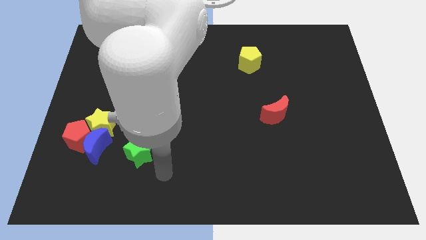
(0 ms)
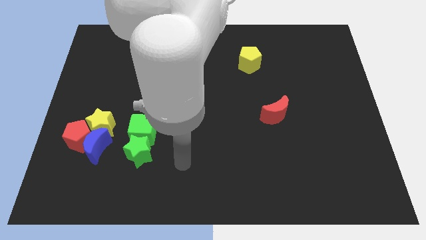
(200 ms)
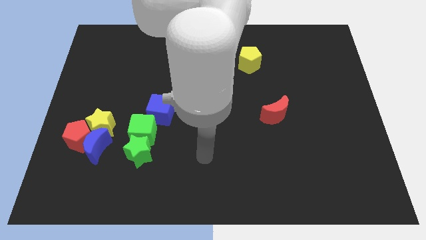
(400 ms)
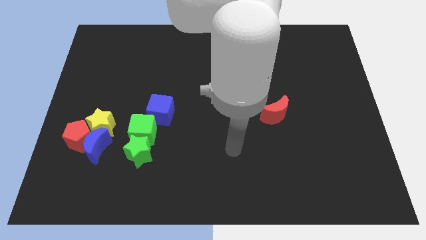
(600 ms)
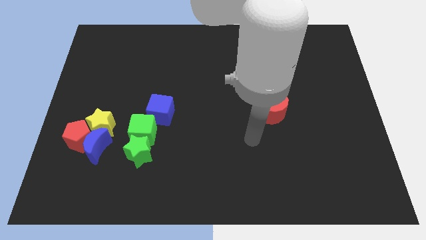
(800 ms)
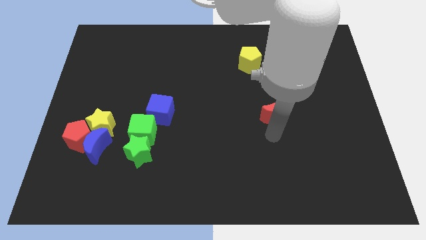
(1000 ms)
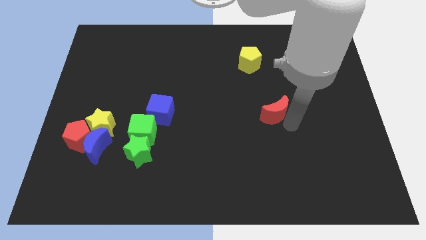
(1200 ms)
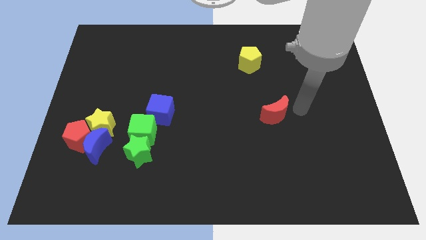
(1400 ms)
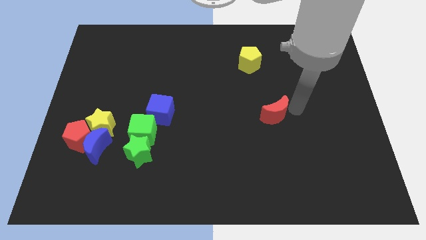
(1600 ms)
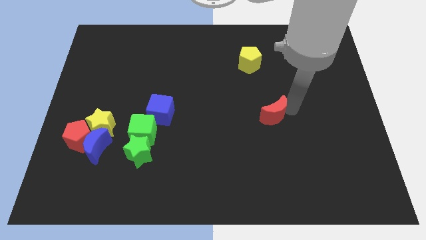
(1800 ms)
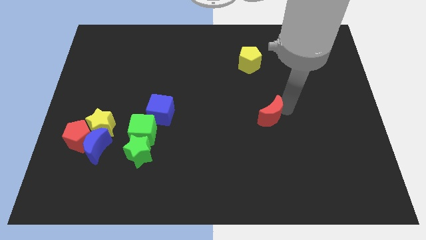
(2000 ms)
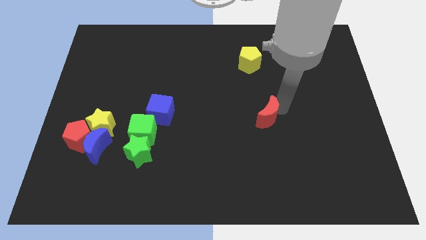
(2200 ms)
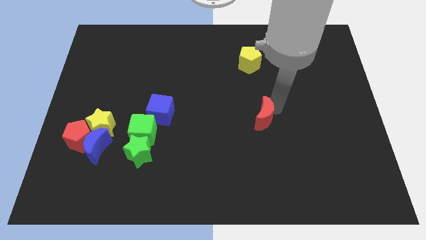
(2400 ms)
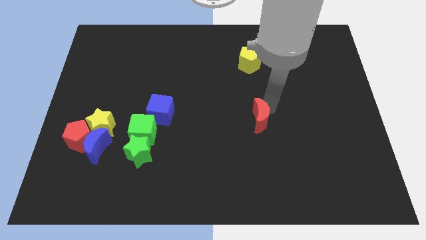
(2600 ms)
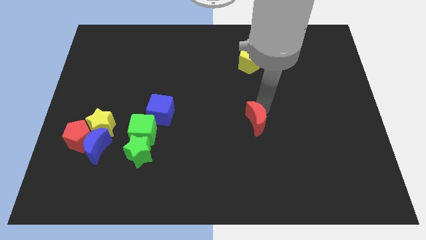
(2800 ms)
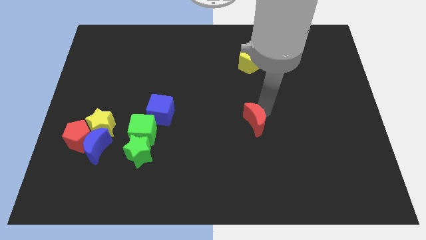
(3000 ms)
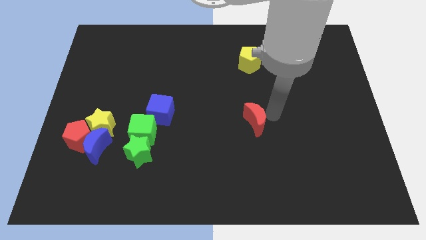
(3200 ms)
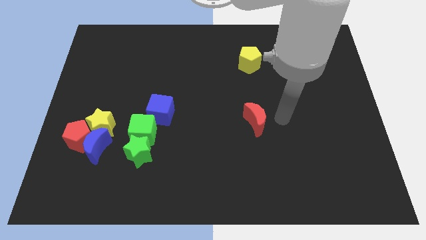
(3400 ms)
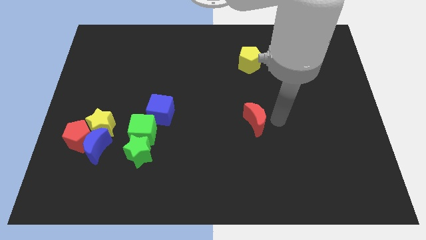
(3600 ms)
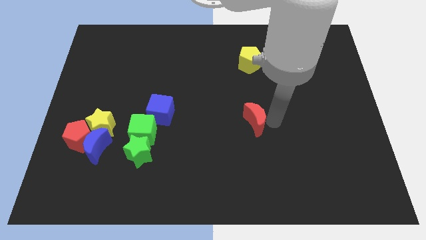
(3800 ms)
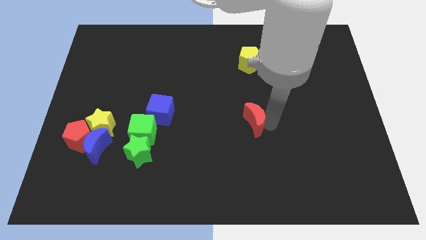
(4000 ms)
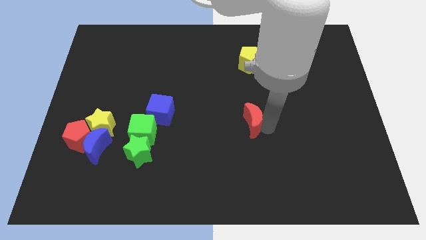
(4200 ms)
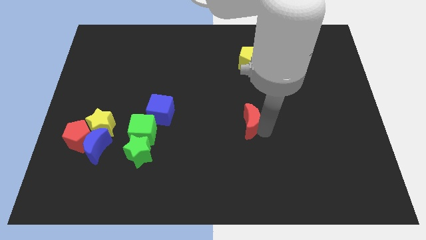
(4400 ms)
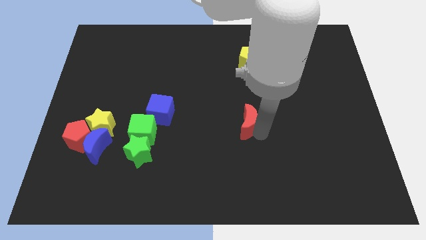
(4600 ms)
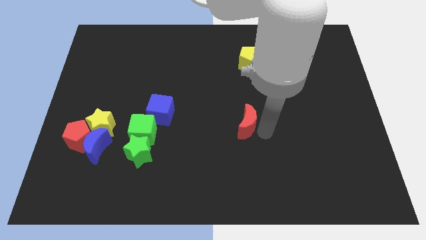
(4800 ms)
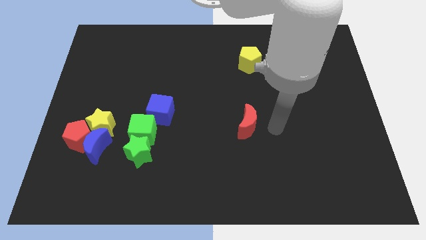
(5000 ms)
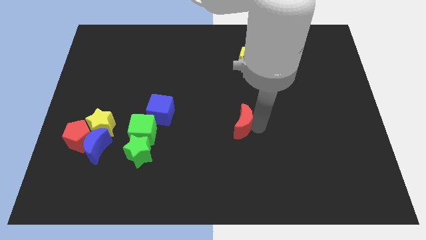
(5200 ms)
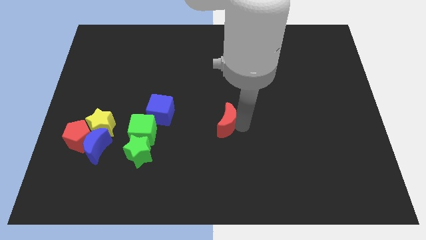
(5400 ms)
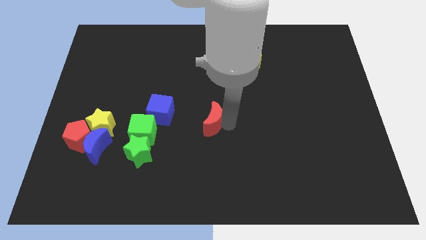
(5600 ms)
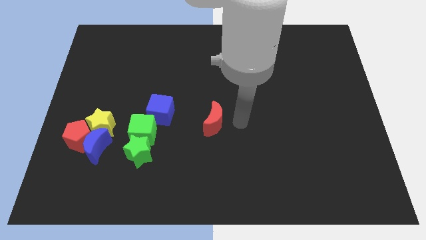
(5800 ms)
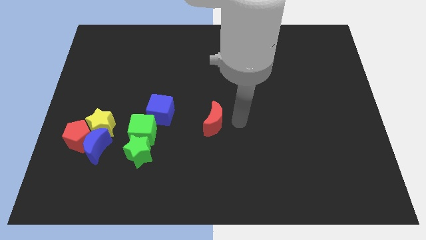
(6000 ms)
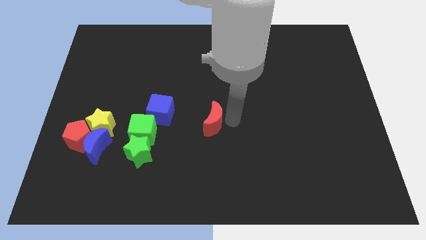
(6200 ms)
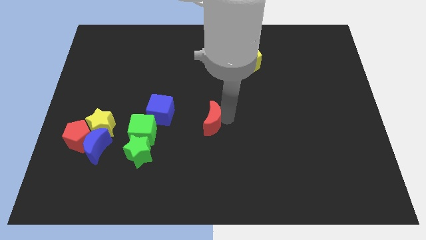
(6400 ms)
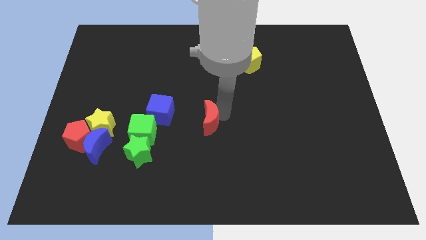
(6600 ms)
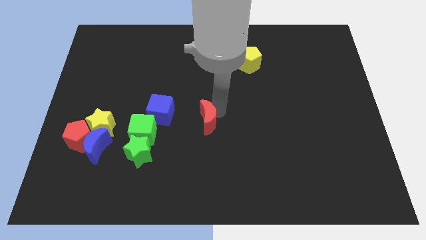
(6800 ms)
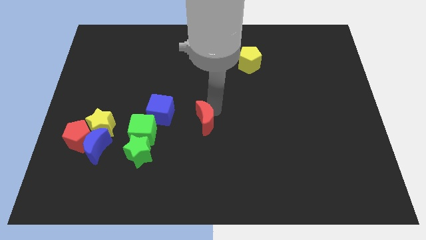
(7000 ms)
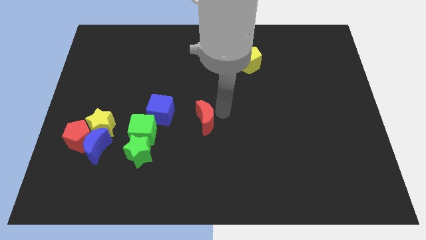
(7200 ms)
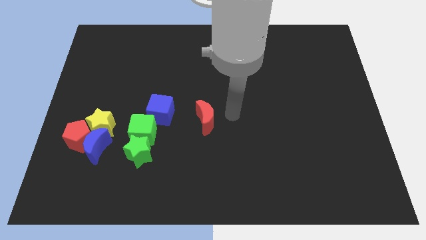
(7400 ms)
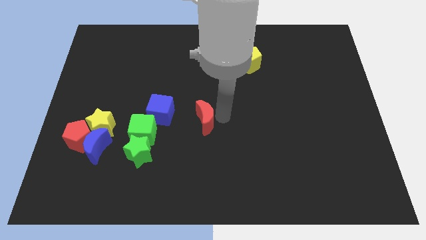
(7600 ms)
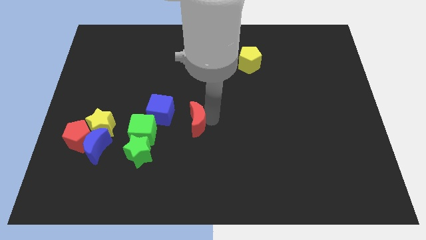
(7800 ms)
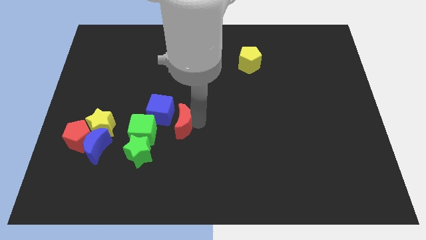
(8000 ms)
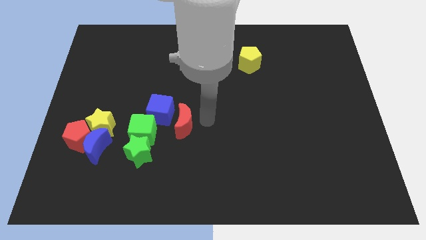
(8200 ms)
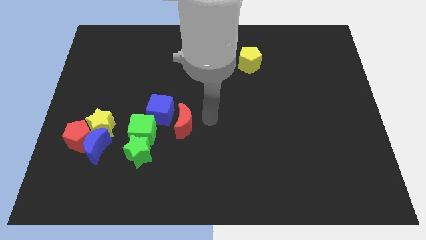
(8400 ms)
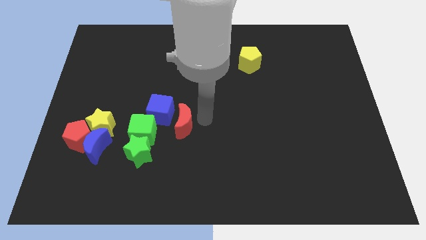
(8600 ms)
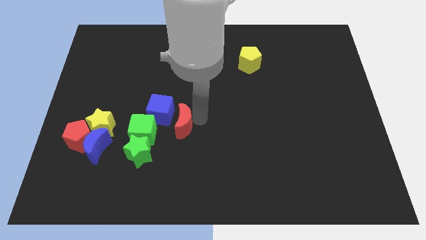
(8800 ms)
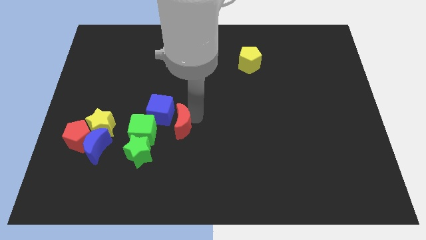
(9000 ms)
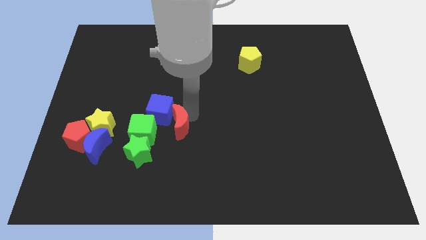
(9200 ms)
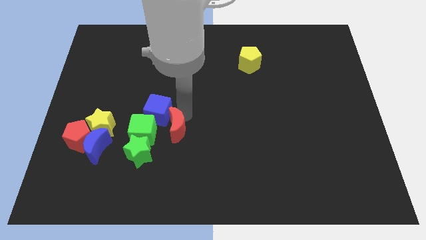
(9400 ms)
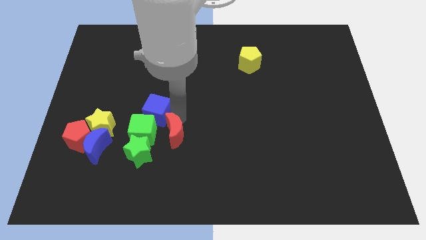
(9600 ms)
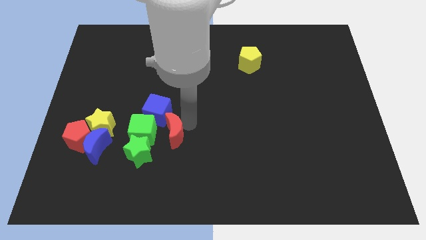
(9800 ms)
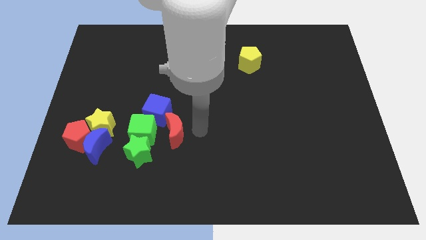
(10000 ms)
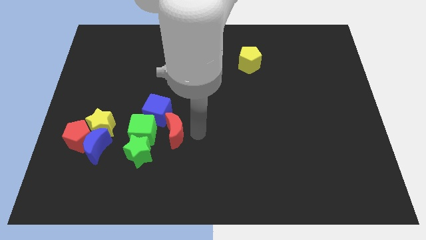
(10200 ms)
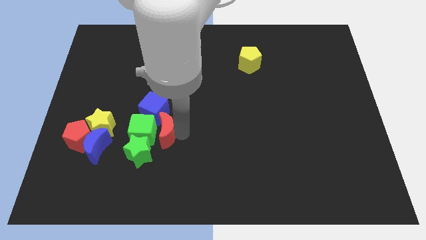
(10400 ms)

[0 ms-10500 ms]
move the red moon to the green cube

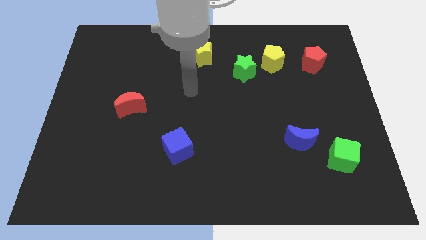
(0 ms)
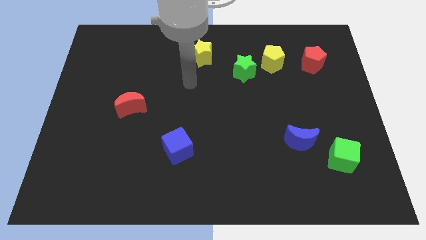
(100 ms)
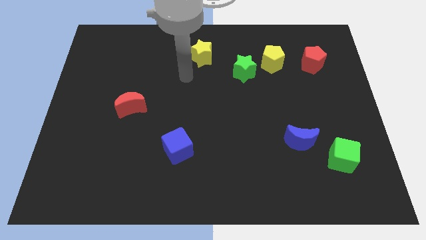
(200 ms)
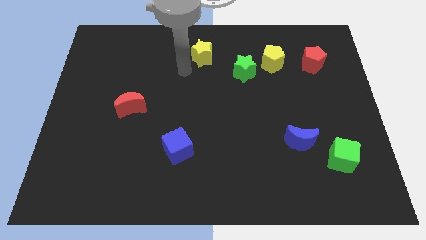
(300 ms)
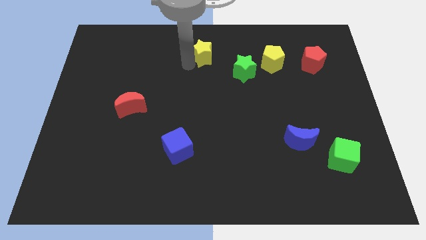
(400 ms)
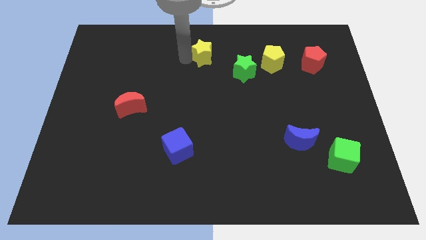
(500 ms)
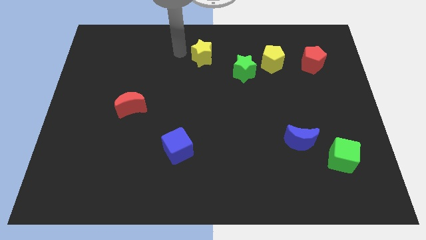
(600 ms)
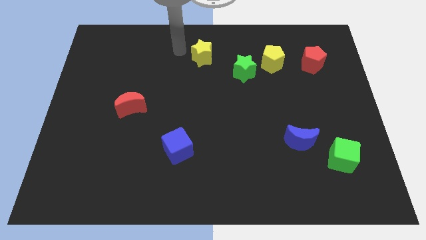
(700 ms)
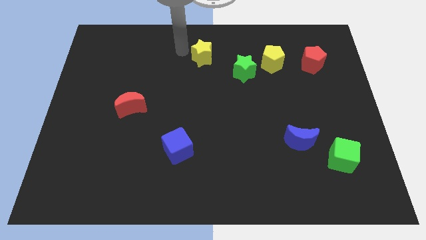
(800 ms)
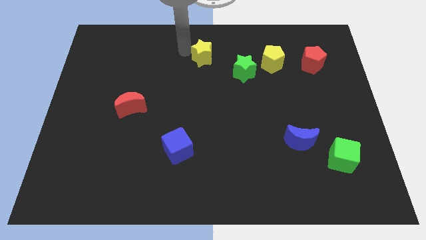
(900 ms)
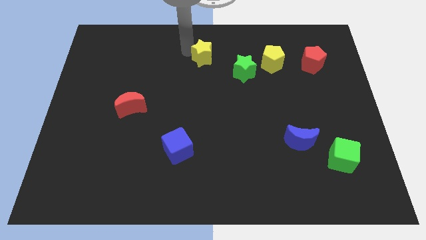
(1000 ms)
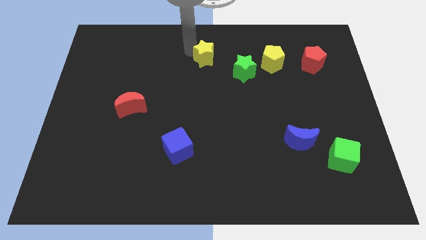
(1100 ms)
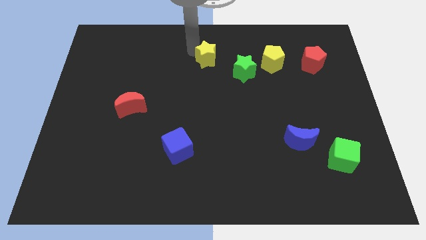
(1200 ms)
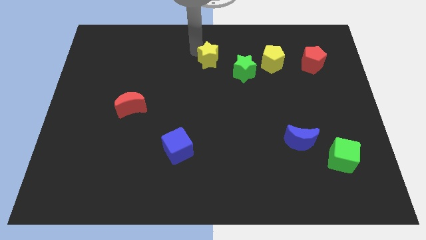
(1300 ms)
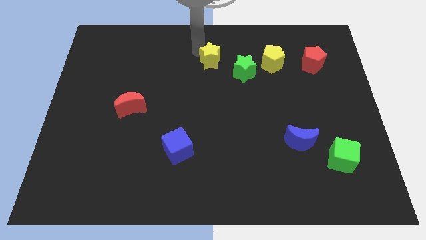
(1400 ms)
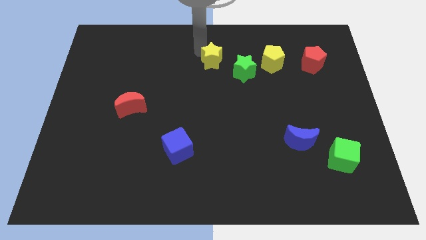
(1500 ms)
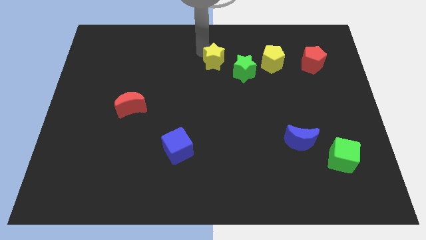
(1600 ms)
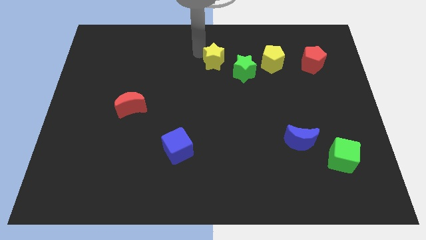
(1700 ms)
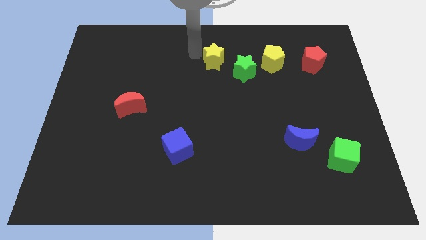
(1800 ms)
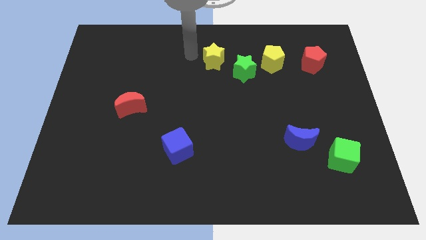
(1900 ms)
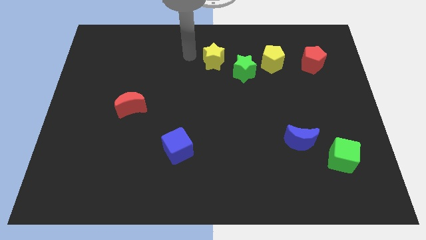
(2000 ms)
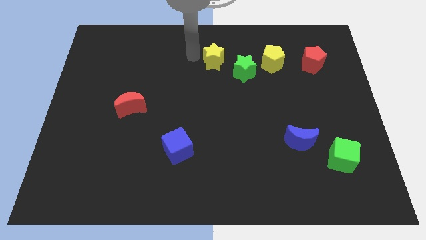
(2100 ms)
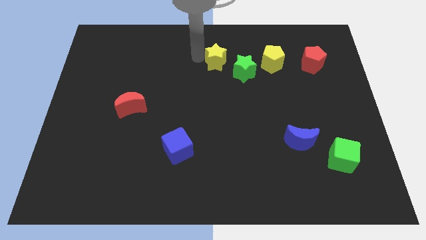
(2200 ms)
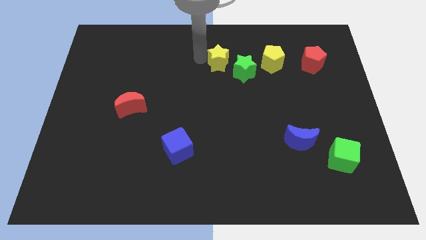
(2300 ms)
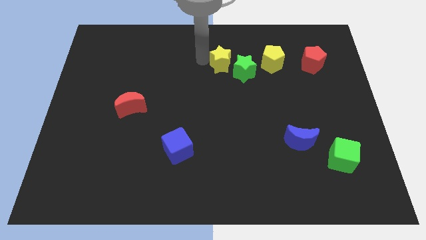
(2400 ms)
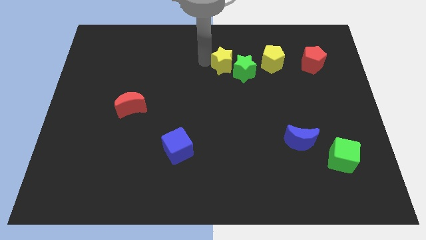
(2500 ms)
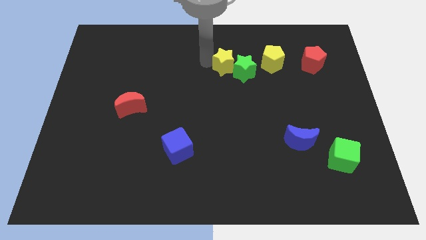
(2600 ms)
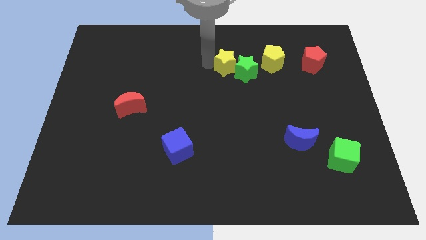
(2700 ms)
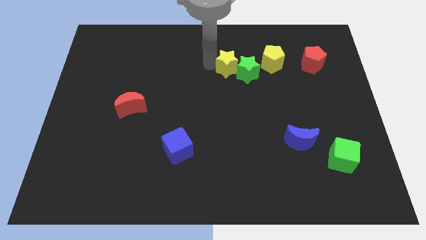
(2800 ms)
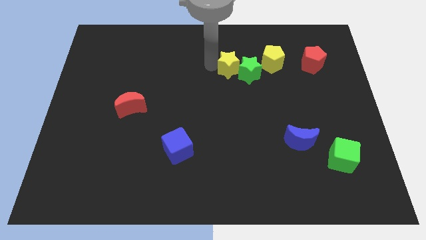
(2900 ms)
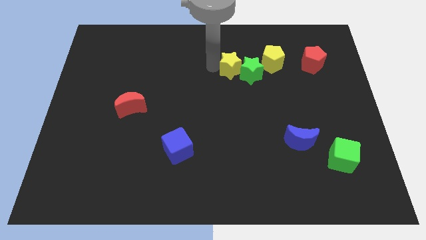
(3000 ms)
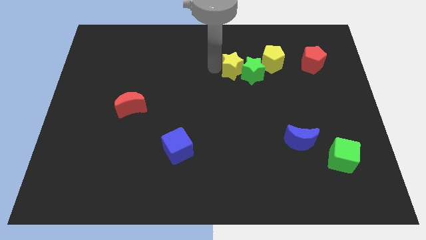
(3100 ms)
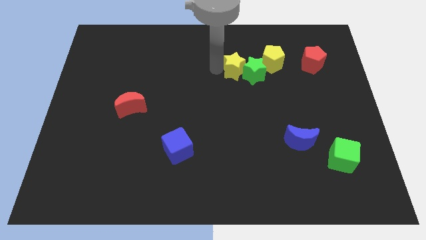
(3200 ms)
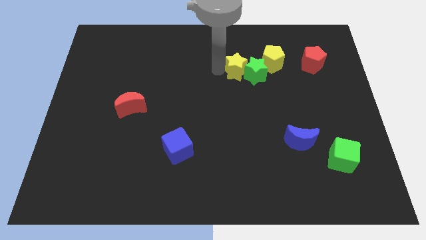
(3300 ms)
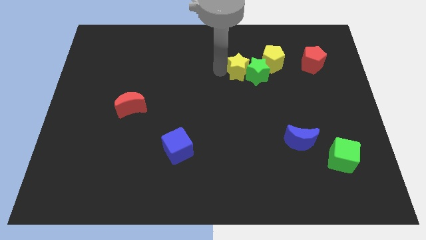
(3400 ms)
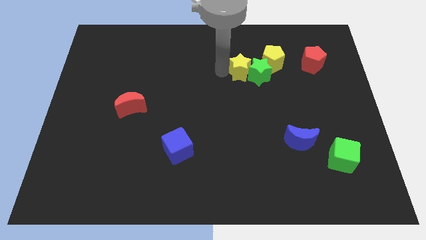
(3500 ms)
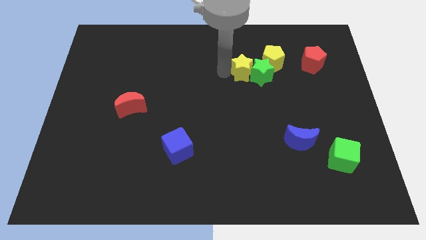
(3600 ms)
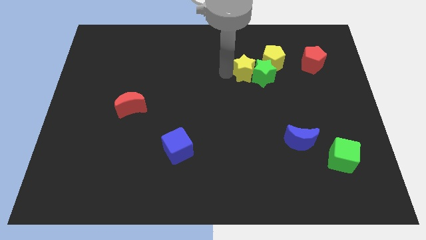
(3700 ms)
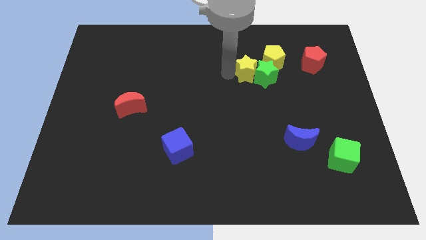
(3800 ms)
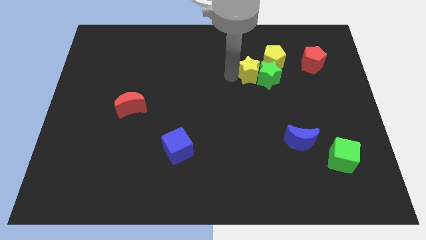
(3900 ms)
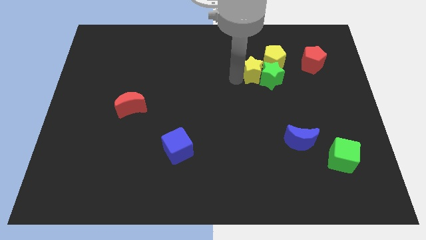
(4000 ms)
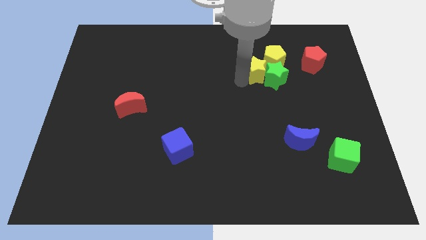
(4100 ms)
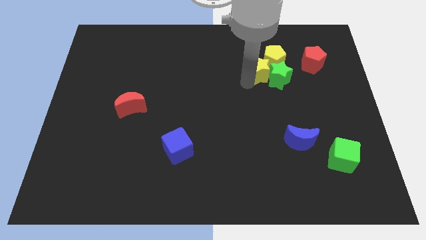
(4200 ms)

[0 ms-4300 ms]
slide the yellow star next to the yellow pentagon
